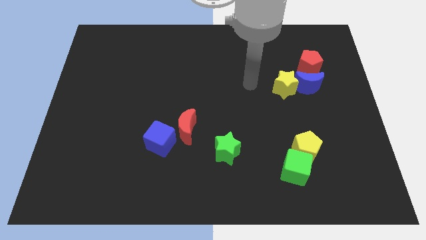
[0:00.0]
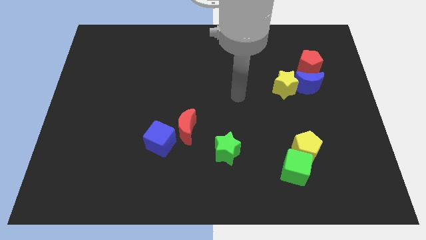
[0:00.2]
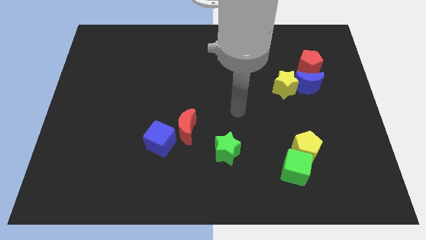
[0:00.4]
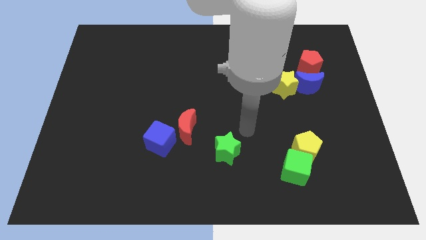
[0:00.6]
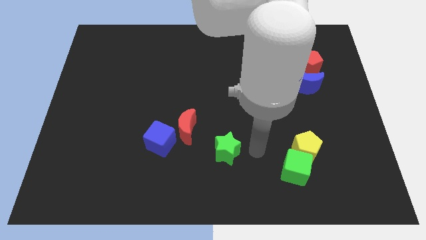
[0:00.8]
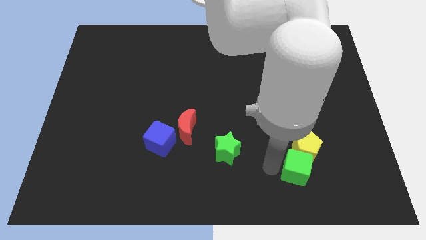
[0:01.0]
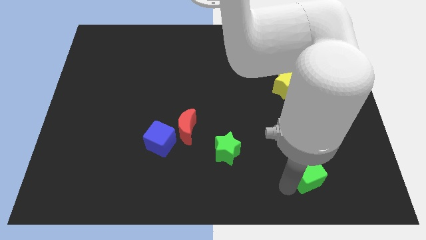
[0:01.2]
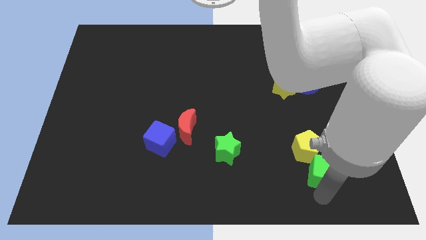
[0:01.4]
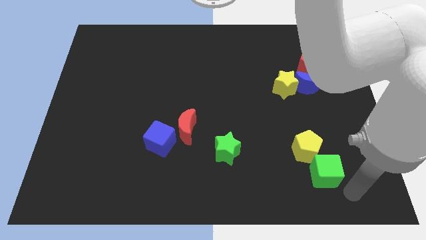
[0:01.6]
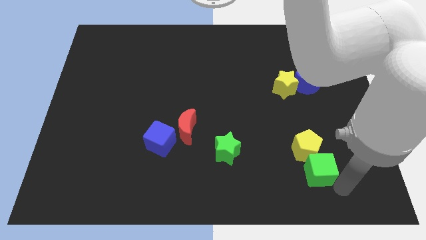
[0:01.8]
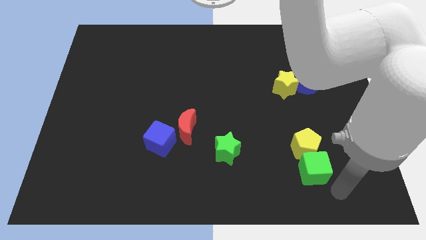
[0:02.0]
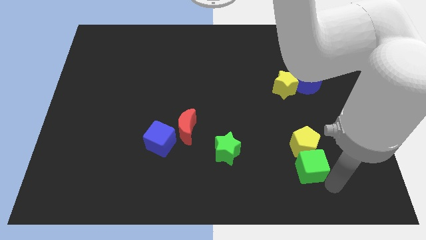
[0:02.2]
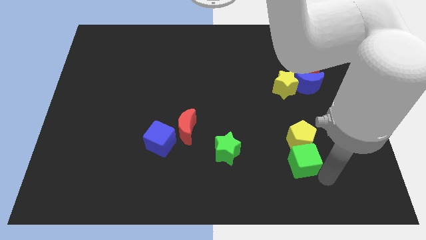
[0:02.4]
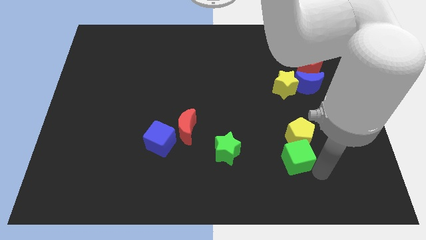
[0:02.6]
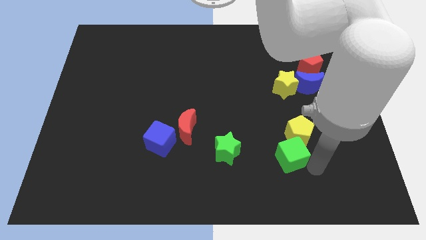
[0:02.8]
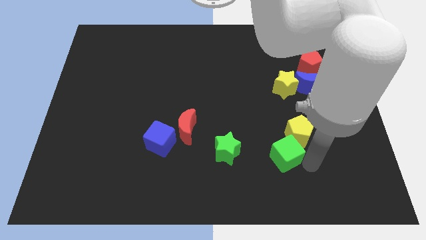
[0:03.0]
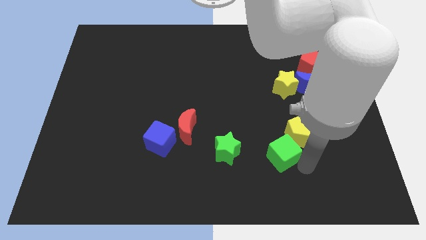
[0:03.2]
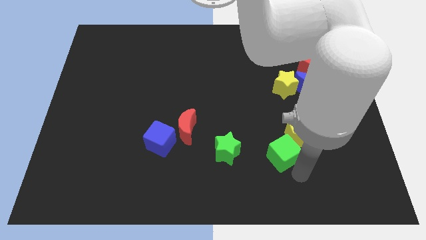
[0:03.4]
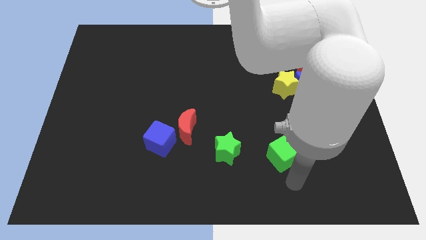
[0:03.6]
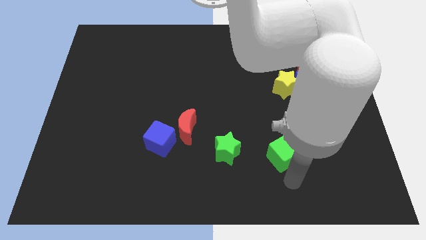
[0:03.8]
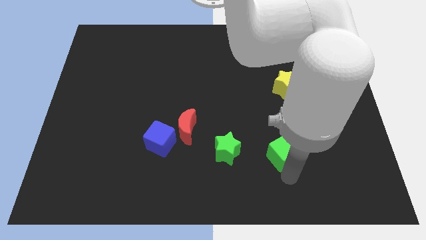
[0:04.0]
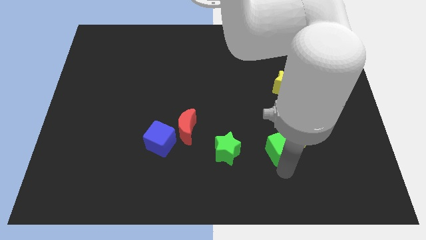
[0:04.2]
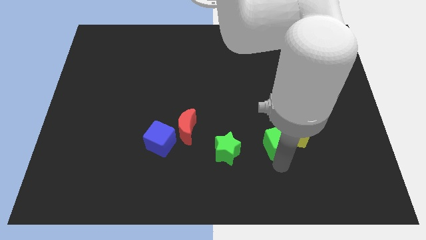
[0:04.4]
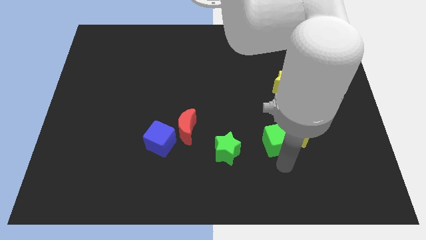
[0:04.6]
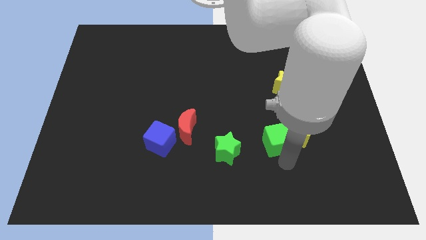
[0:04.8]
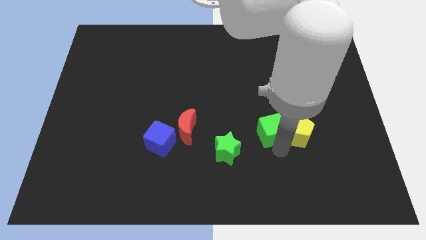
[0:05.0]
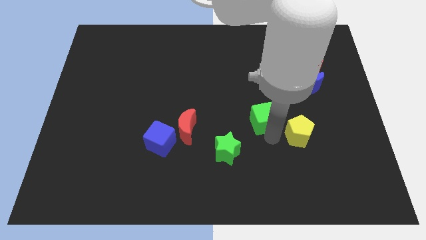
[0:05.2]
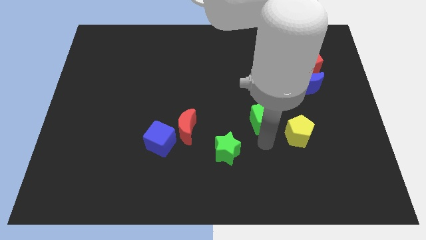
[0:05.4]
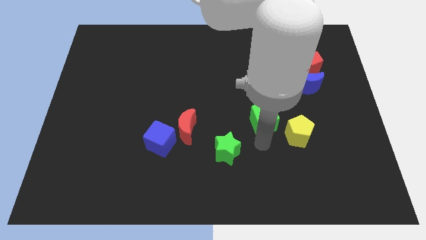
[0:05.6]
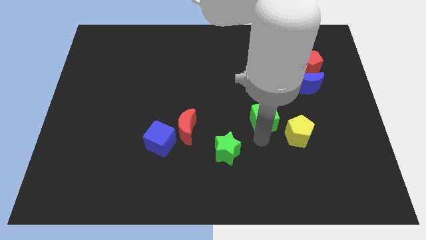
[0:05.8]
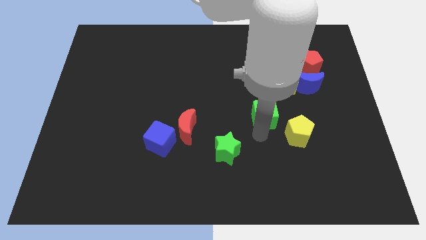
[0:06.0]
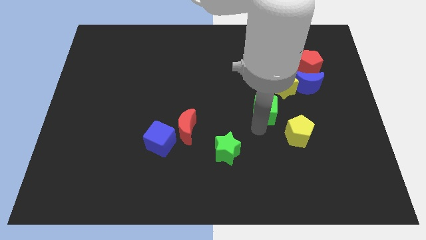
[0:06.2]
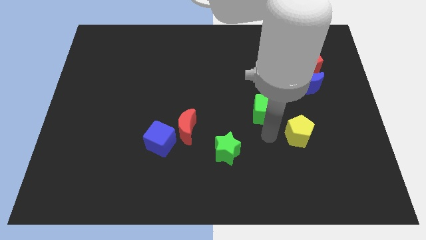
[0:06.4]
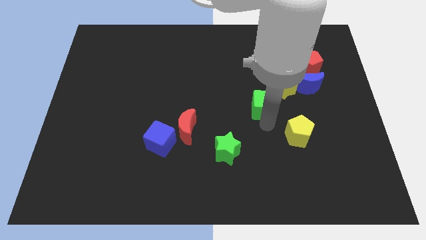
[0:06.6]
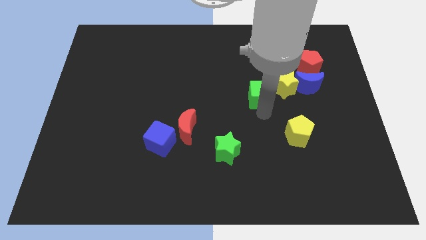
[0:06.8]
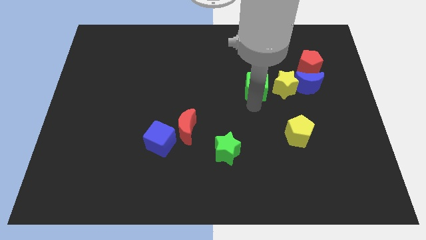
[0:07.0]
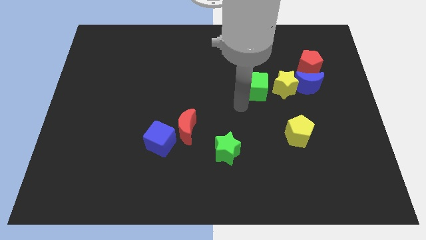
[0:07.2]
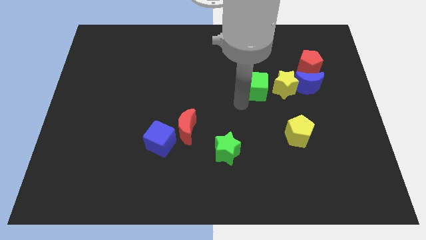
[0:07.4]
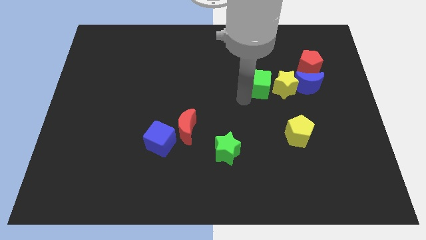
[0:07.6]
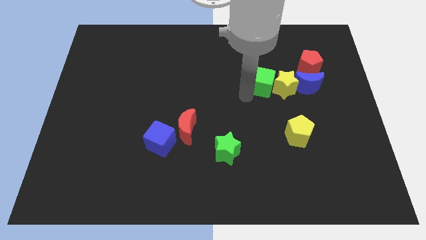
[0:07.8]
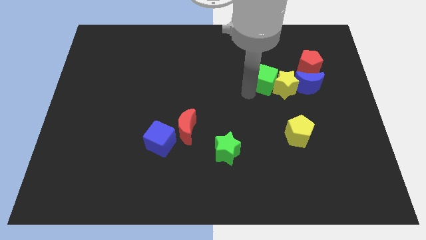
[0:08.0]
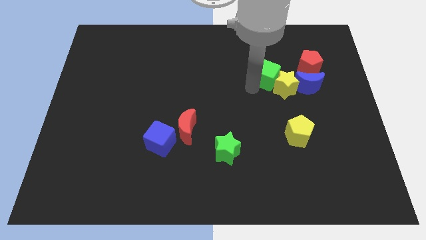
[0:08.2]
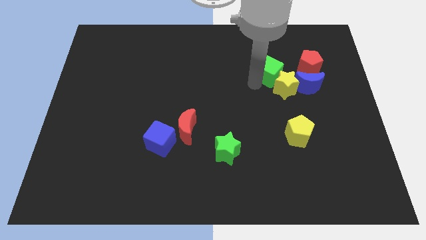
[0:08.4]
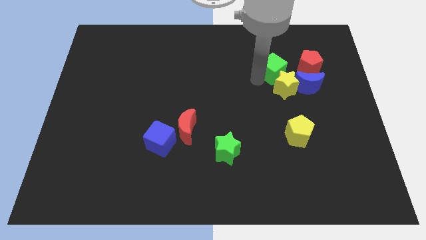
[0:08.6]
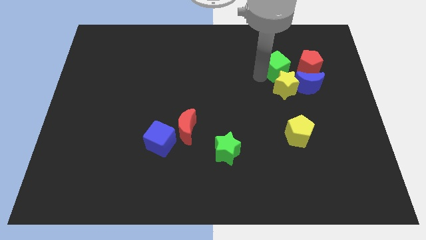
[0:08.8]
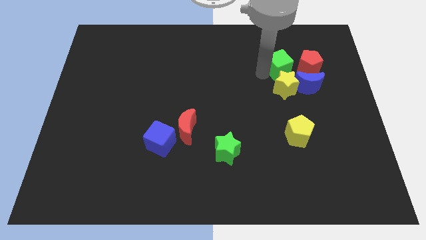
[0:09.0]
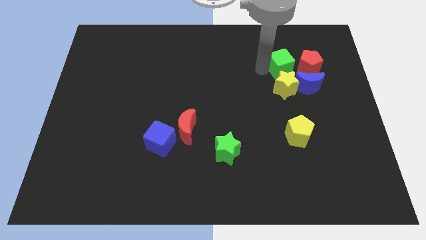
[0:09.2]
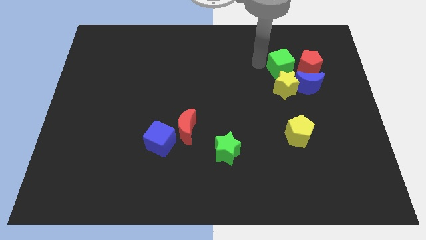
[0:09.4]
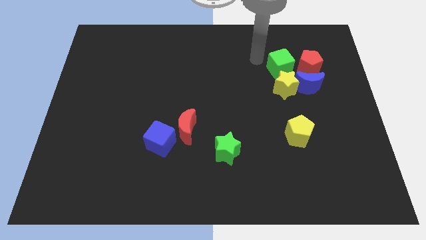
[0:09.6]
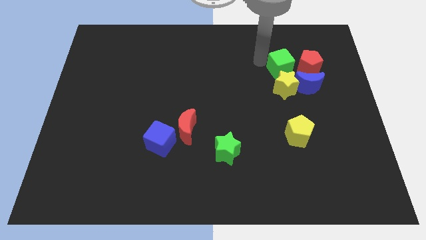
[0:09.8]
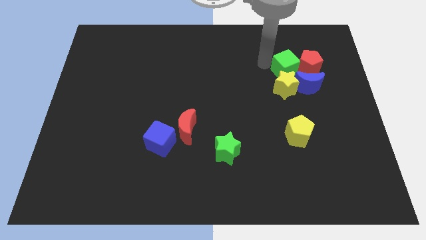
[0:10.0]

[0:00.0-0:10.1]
slide the green cube to the red pentagon
